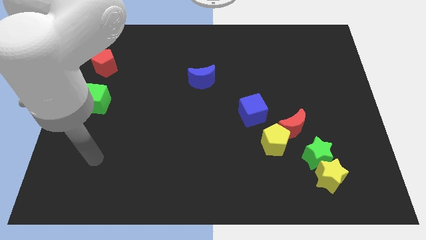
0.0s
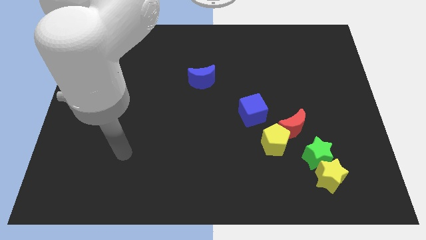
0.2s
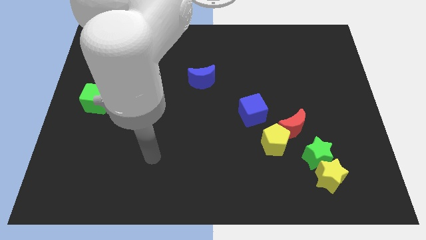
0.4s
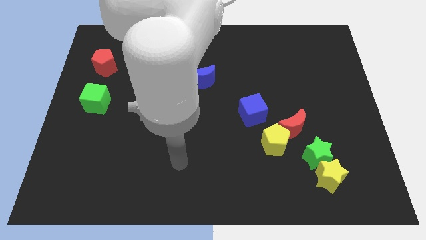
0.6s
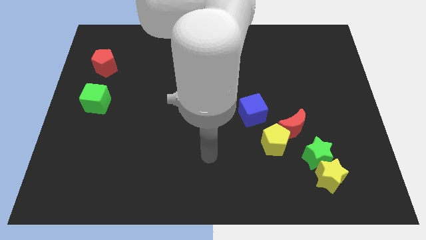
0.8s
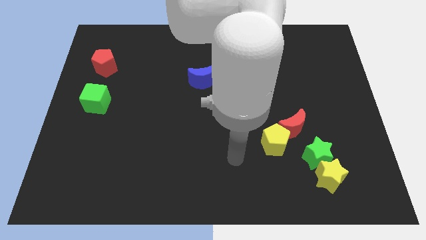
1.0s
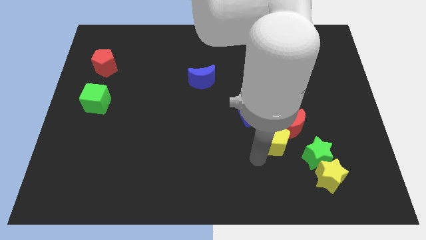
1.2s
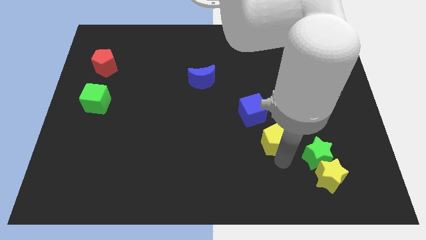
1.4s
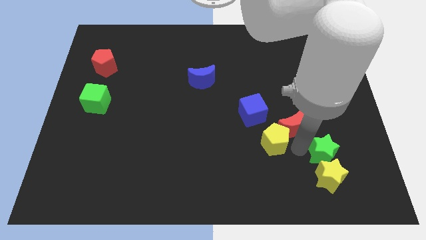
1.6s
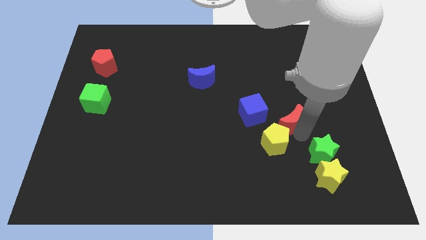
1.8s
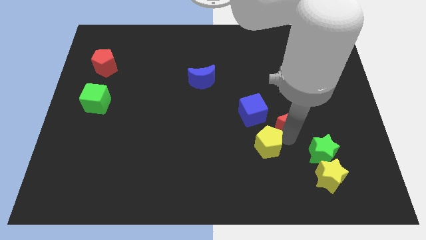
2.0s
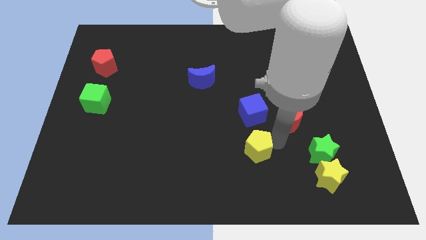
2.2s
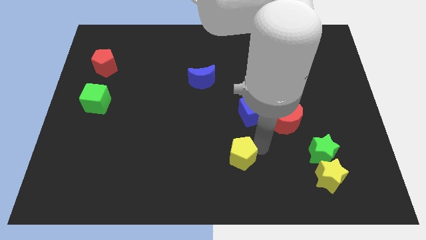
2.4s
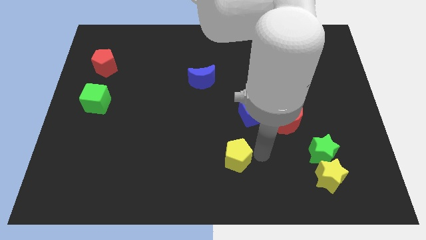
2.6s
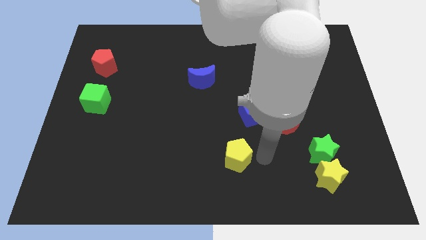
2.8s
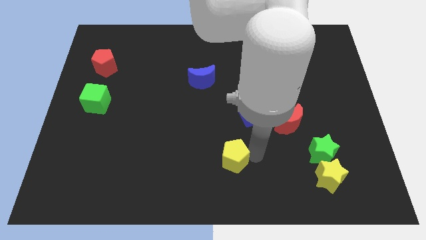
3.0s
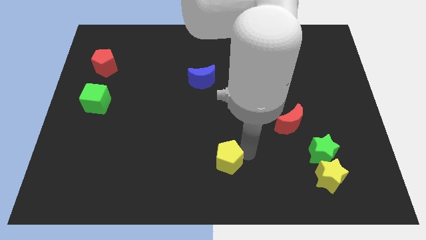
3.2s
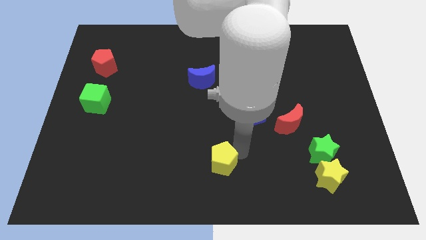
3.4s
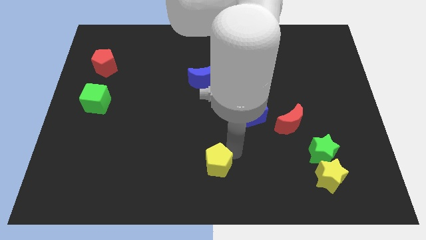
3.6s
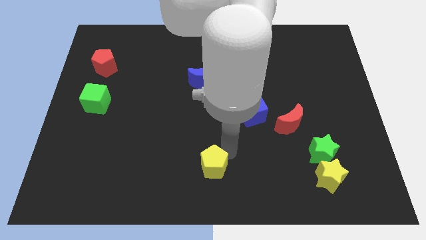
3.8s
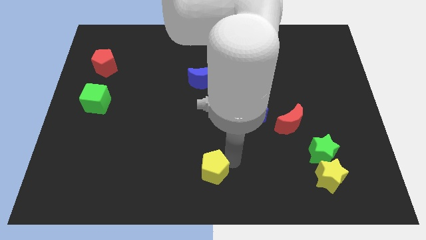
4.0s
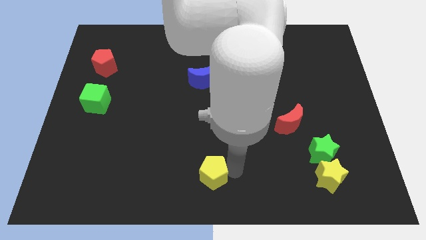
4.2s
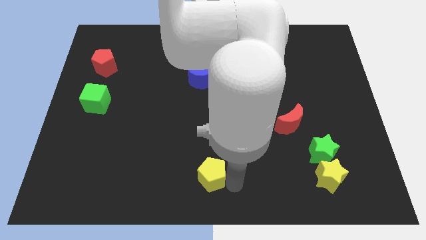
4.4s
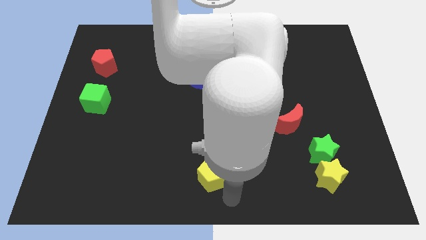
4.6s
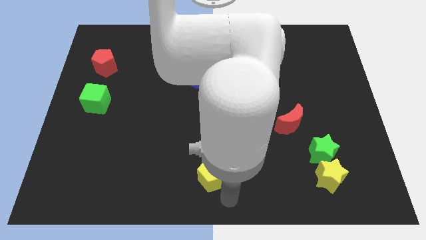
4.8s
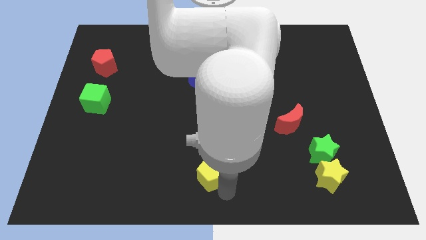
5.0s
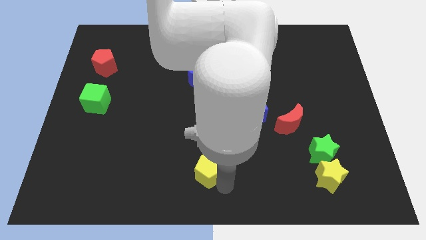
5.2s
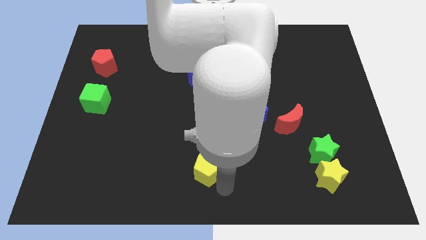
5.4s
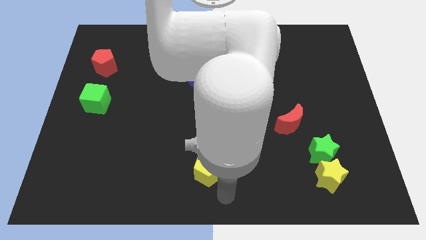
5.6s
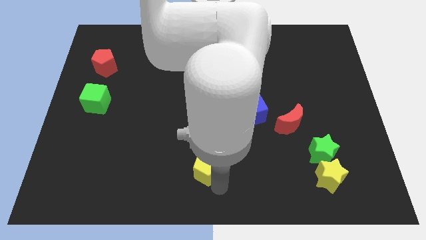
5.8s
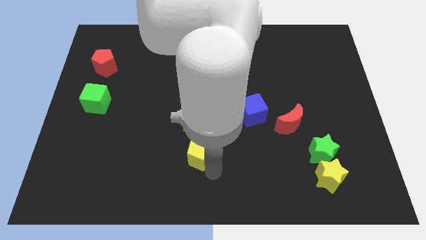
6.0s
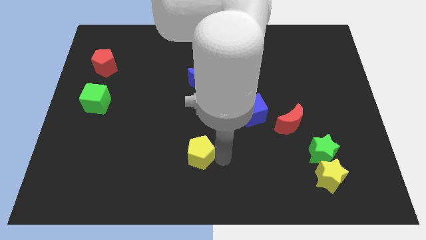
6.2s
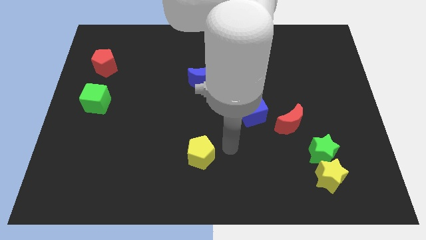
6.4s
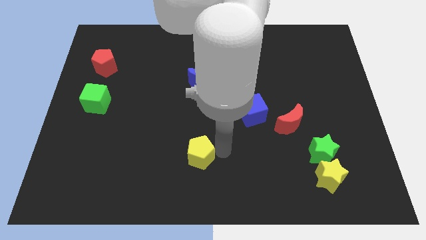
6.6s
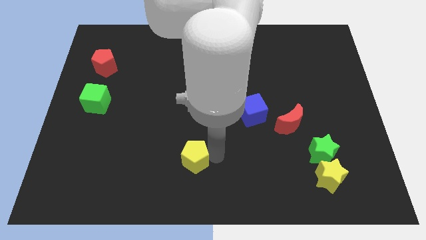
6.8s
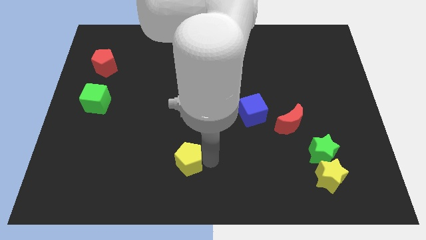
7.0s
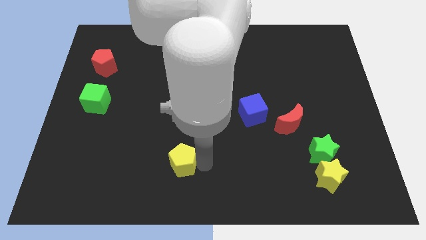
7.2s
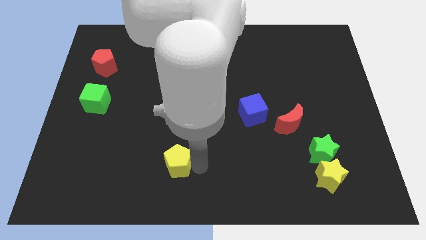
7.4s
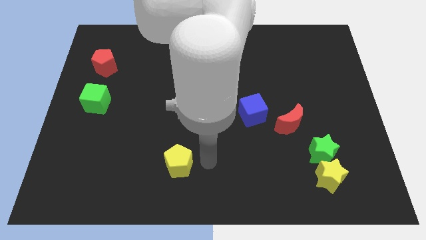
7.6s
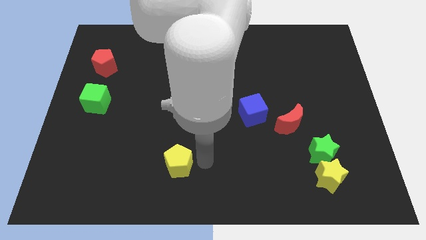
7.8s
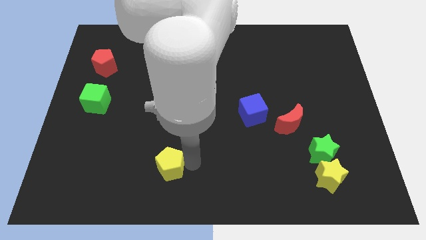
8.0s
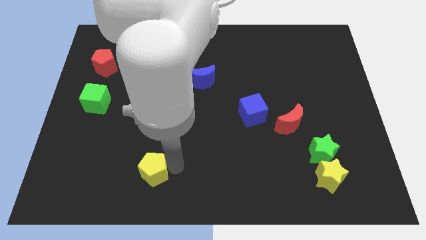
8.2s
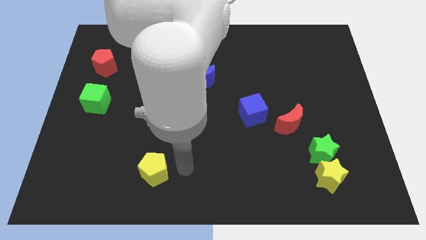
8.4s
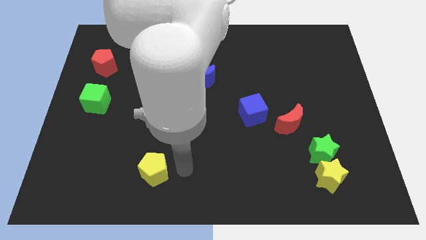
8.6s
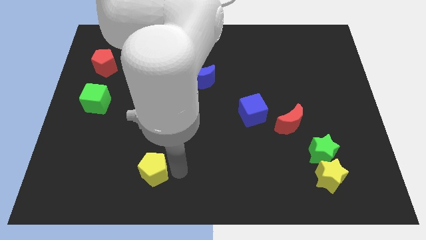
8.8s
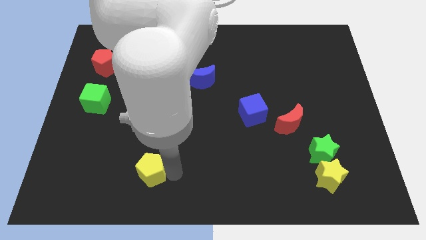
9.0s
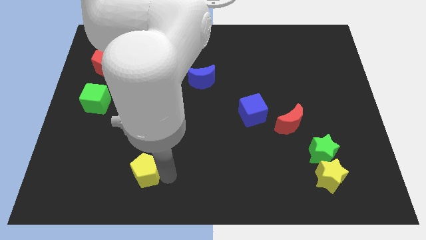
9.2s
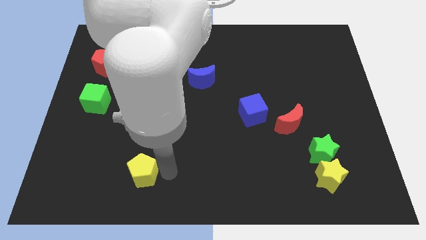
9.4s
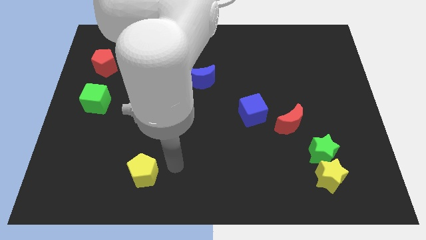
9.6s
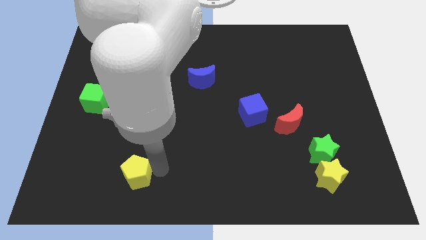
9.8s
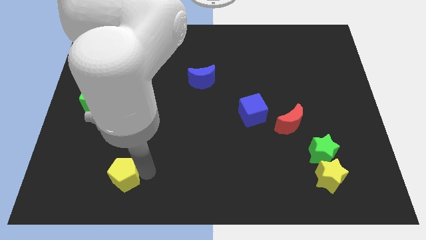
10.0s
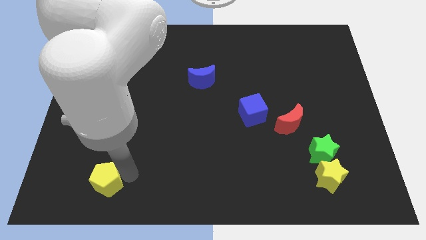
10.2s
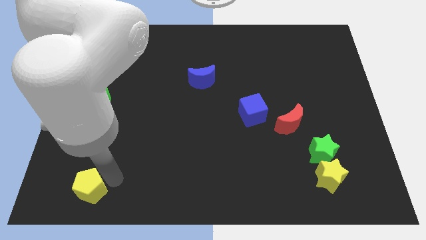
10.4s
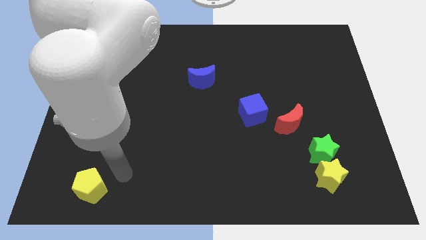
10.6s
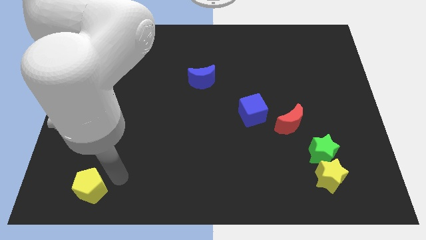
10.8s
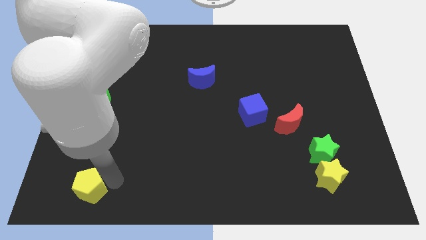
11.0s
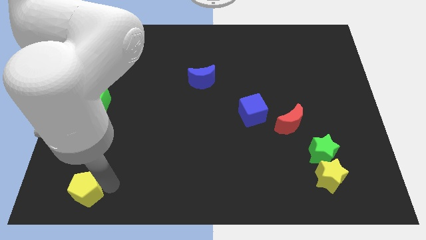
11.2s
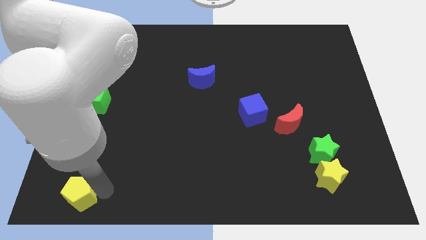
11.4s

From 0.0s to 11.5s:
push the yellow pentagon to the bottom left
